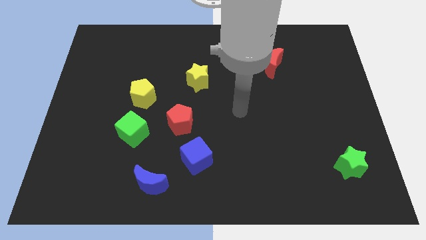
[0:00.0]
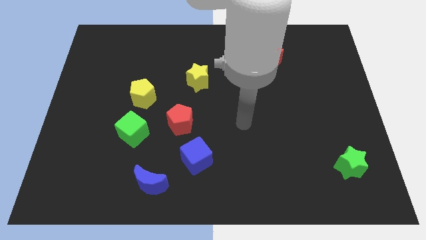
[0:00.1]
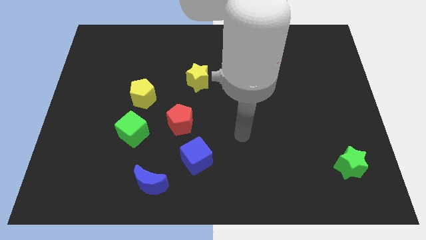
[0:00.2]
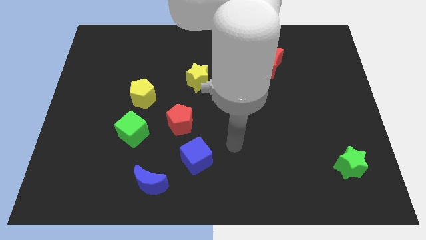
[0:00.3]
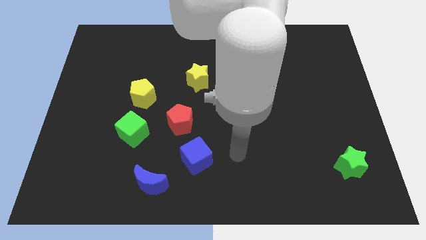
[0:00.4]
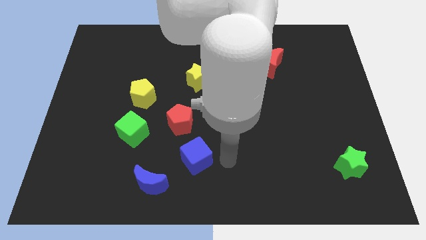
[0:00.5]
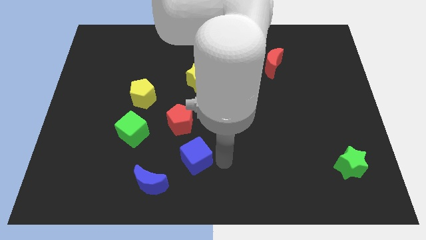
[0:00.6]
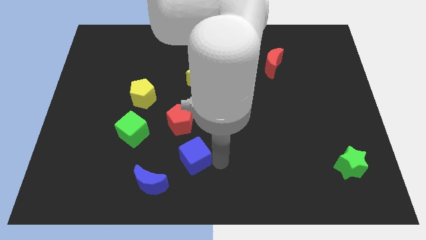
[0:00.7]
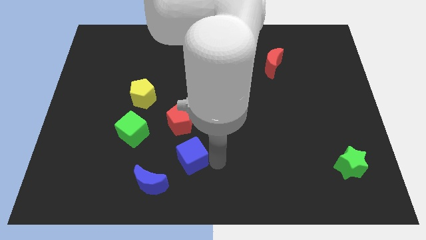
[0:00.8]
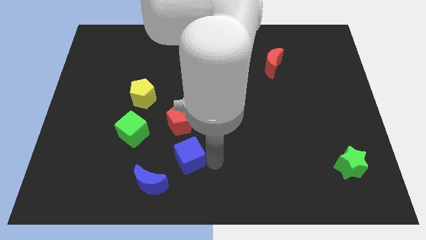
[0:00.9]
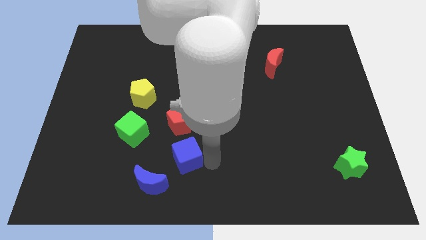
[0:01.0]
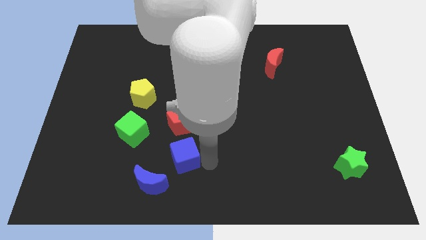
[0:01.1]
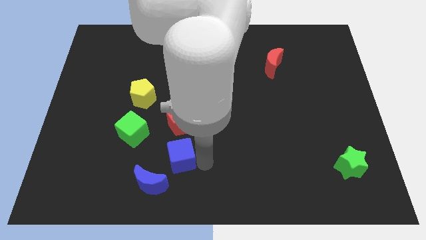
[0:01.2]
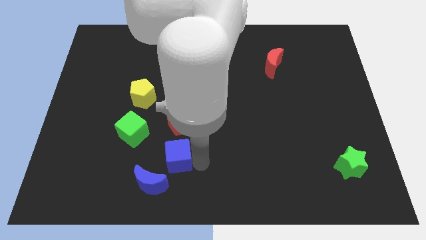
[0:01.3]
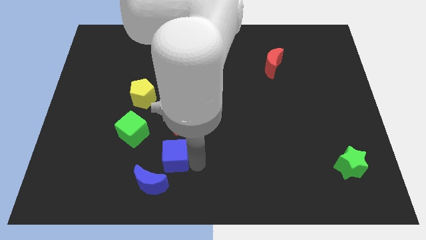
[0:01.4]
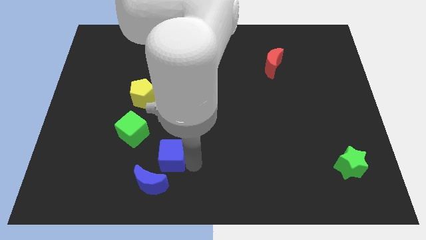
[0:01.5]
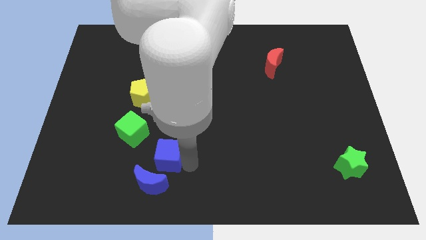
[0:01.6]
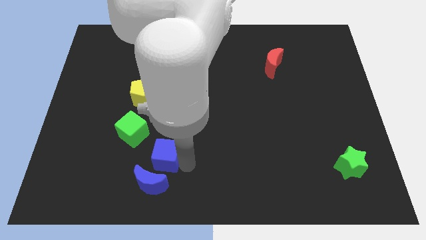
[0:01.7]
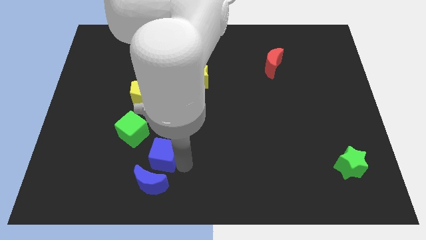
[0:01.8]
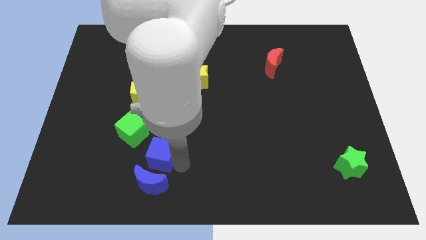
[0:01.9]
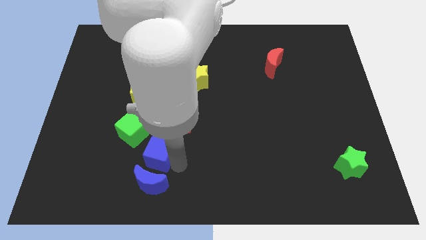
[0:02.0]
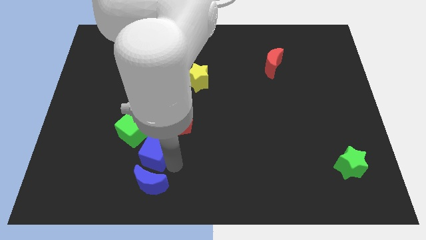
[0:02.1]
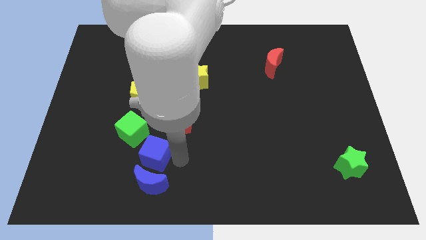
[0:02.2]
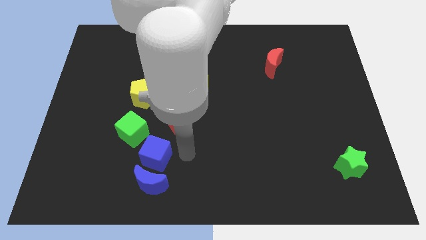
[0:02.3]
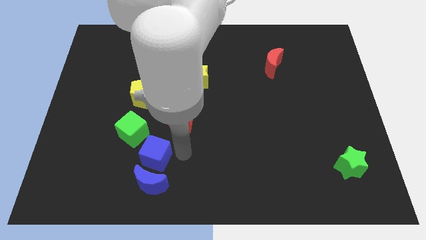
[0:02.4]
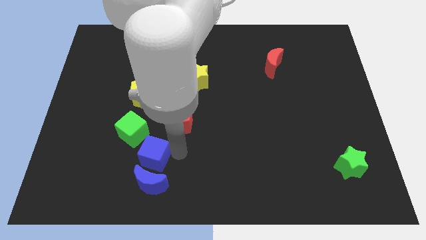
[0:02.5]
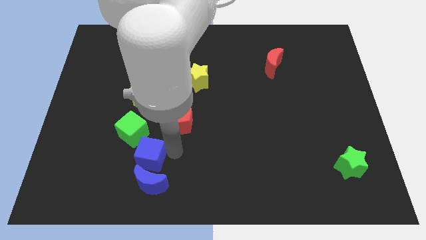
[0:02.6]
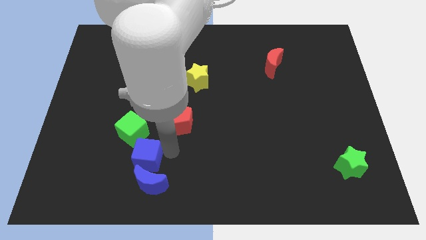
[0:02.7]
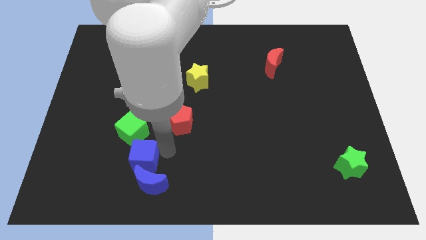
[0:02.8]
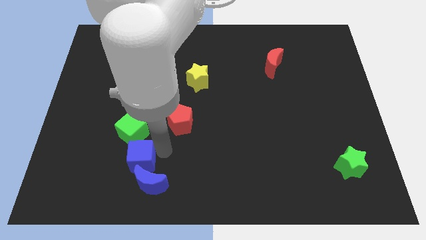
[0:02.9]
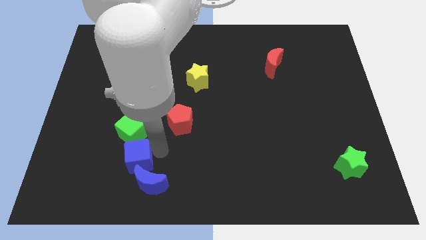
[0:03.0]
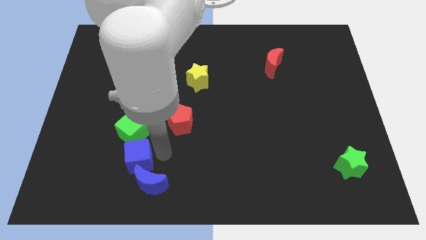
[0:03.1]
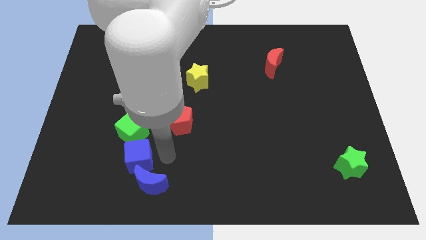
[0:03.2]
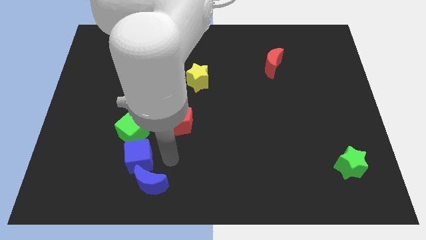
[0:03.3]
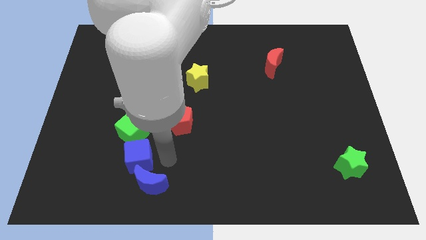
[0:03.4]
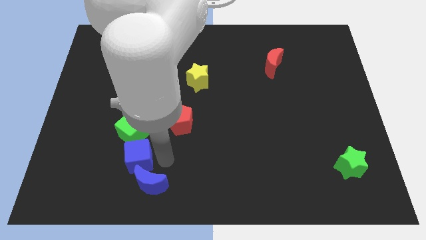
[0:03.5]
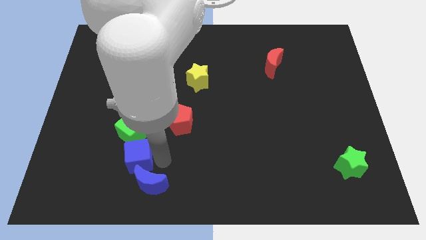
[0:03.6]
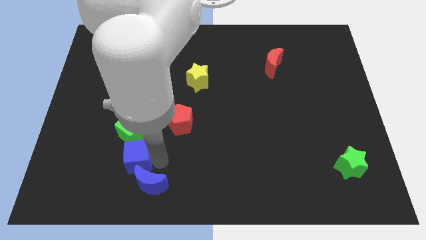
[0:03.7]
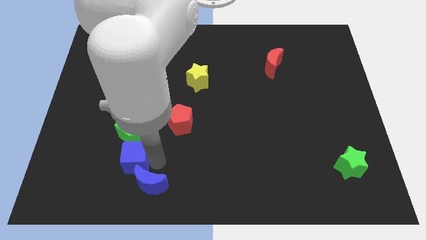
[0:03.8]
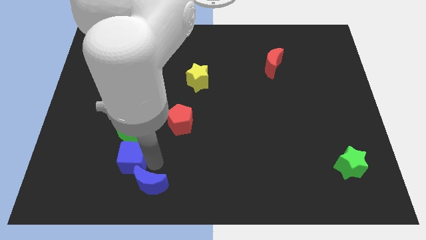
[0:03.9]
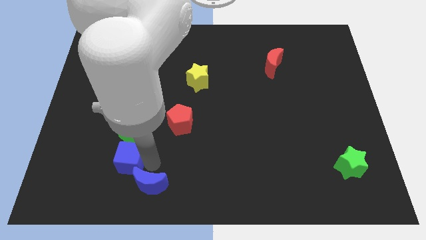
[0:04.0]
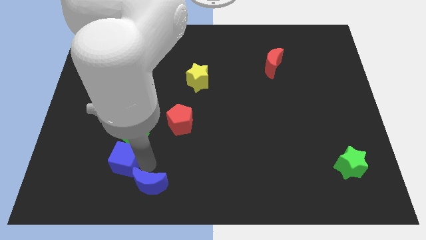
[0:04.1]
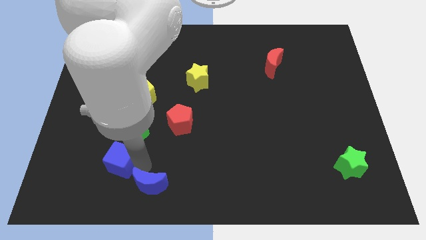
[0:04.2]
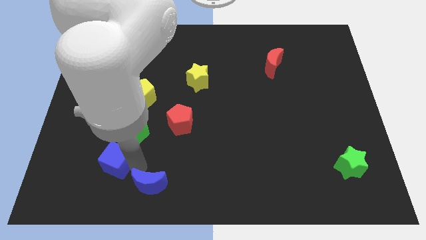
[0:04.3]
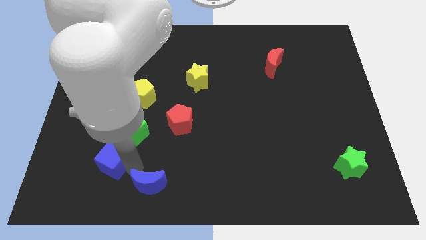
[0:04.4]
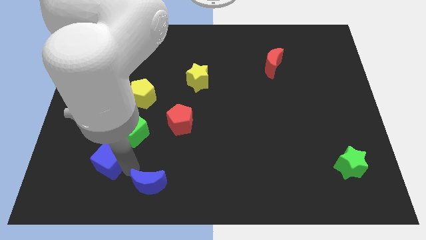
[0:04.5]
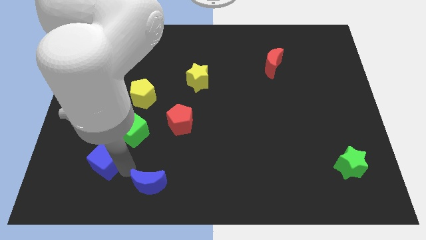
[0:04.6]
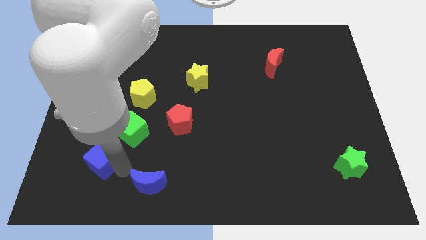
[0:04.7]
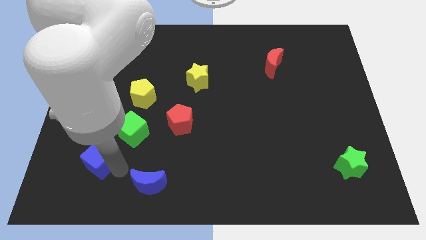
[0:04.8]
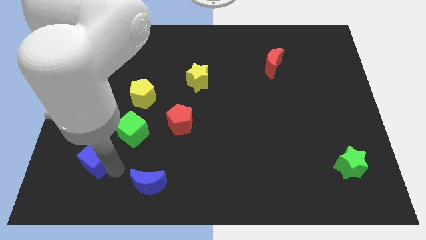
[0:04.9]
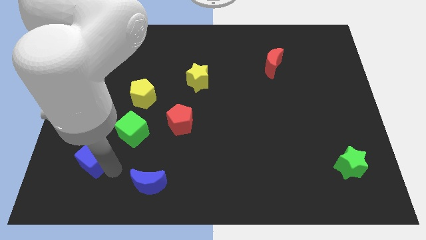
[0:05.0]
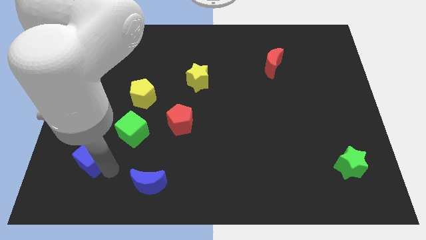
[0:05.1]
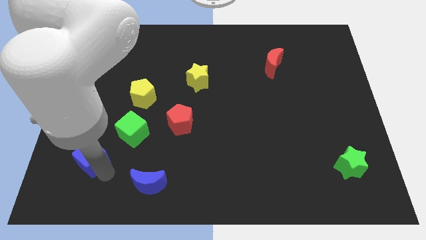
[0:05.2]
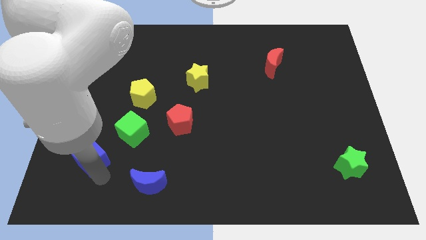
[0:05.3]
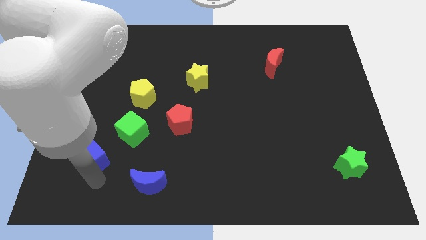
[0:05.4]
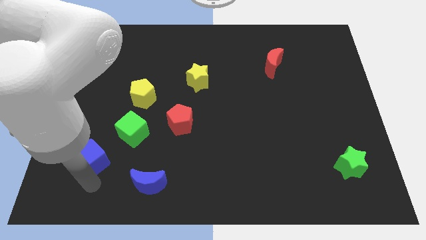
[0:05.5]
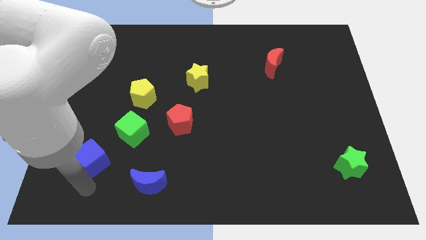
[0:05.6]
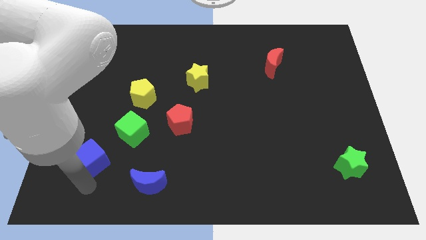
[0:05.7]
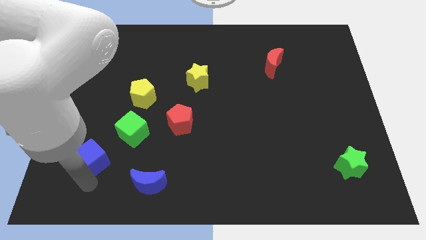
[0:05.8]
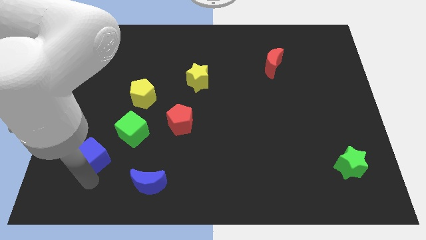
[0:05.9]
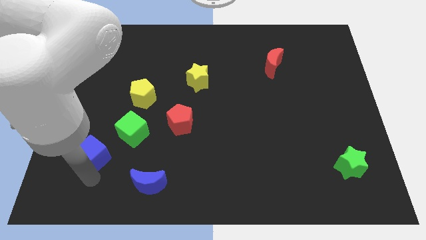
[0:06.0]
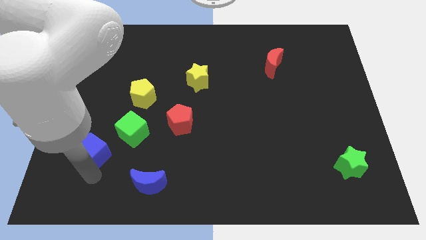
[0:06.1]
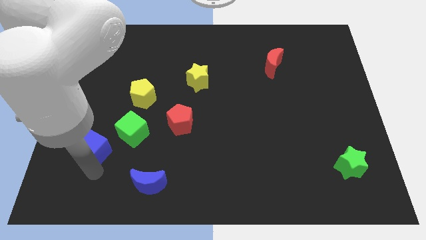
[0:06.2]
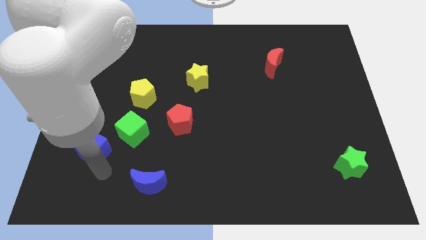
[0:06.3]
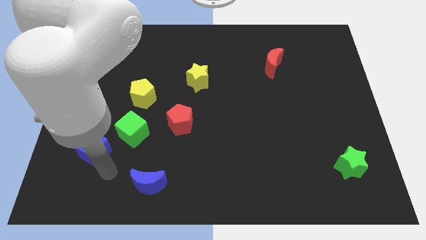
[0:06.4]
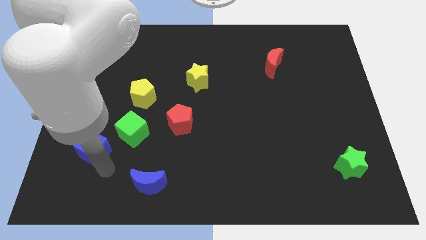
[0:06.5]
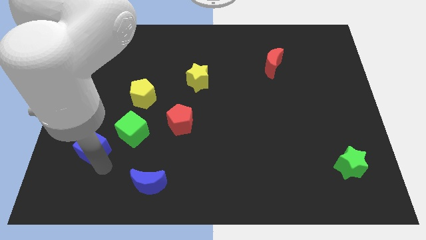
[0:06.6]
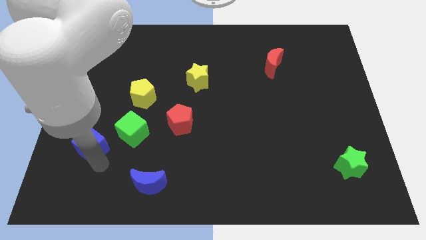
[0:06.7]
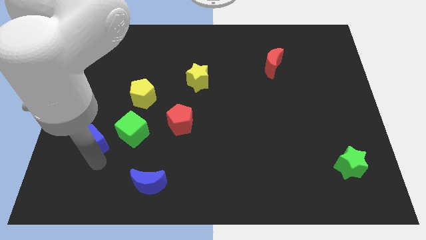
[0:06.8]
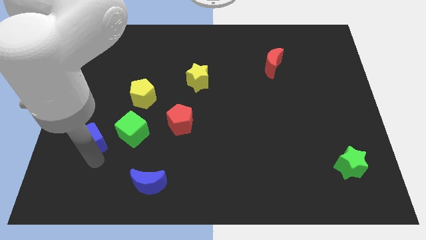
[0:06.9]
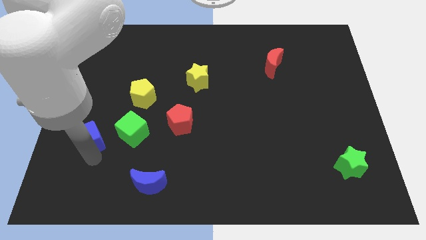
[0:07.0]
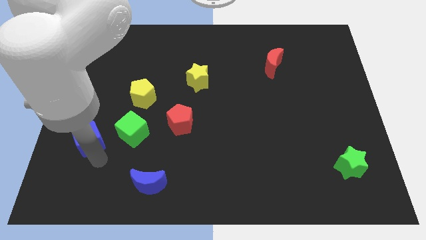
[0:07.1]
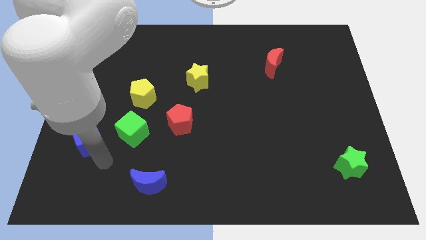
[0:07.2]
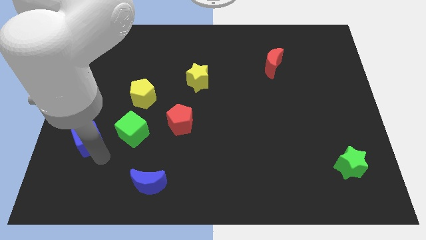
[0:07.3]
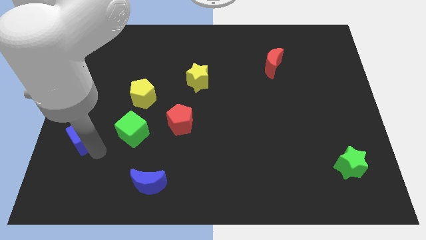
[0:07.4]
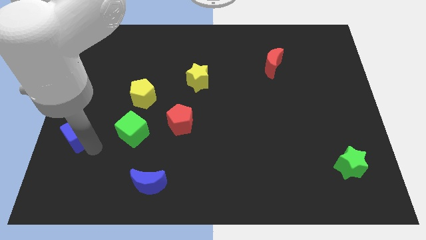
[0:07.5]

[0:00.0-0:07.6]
slide the blue cube to the center left
